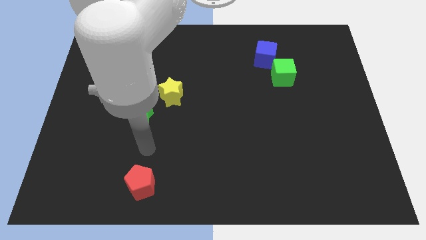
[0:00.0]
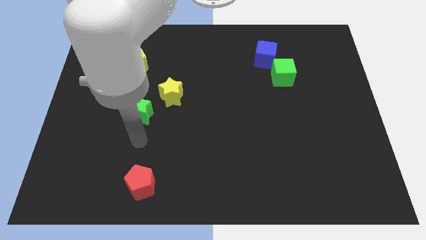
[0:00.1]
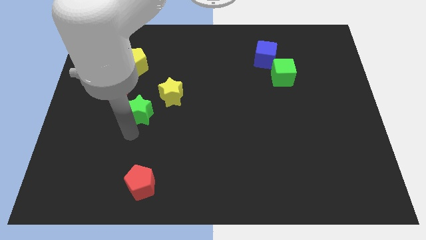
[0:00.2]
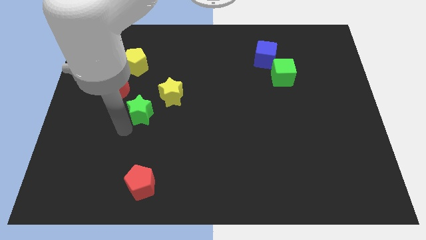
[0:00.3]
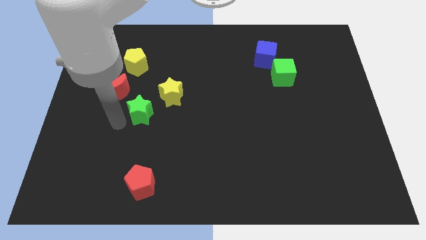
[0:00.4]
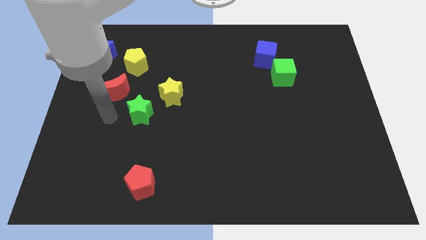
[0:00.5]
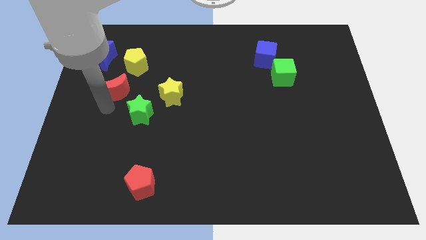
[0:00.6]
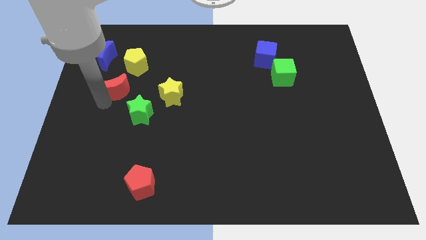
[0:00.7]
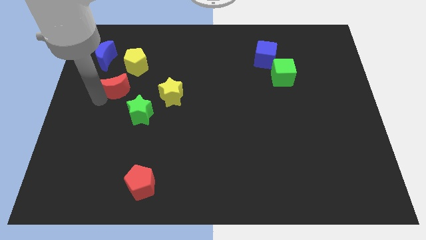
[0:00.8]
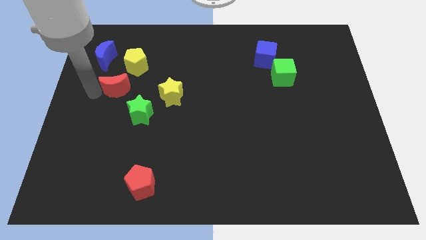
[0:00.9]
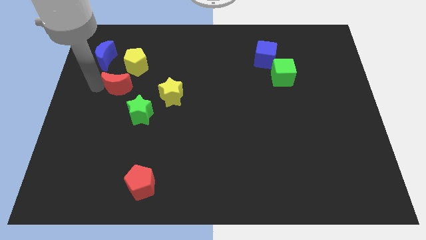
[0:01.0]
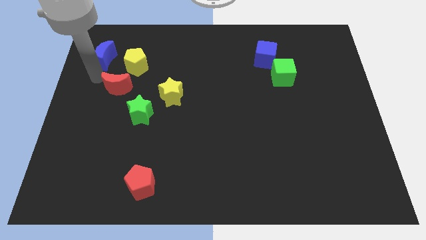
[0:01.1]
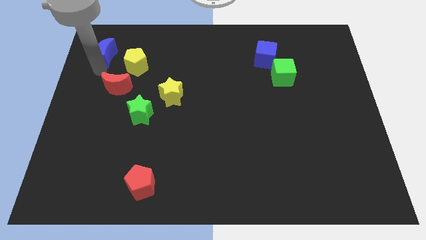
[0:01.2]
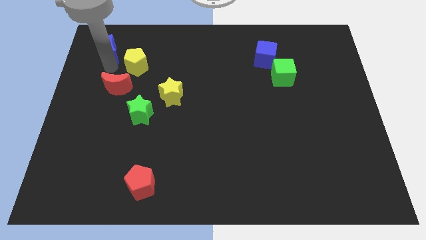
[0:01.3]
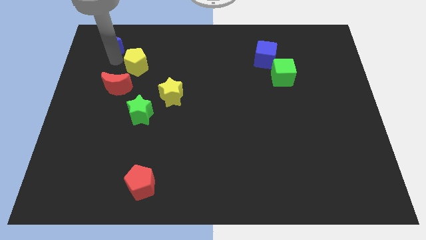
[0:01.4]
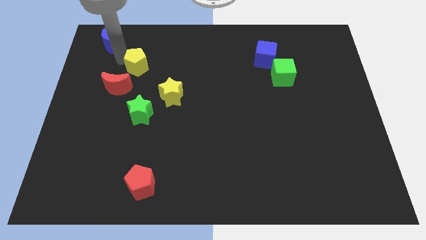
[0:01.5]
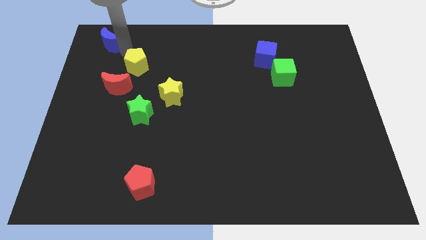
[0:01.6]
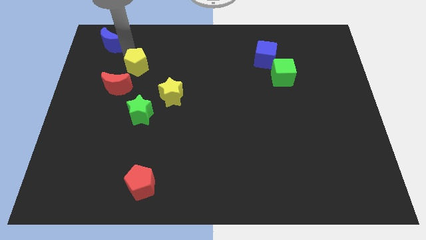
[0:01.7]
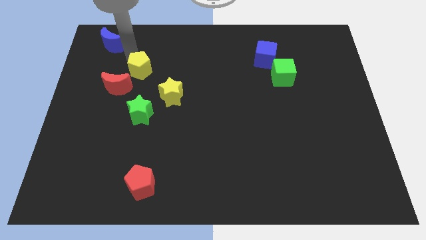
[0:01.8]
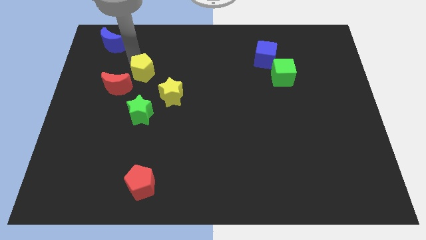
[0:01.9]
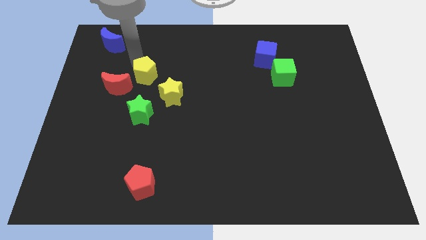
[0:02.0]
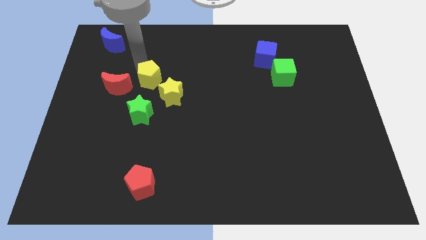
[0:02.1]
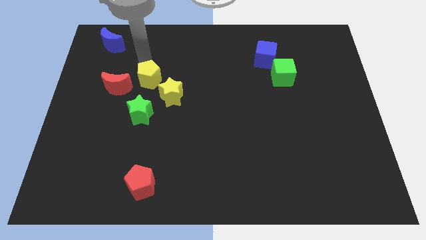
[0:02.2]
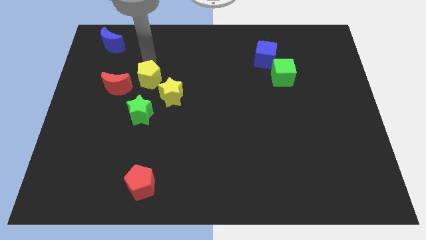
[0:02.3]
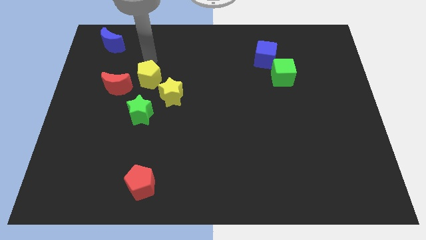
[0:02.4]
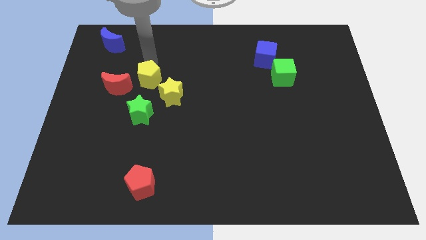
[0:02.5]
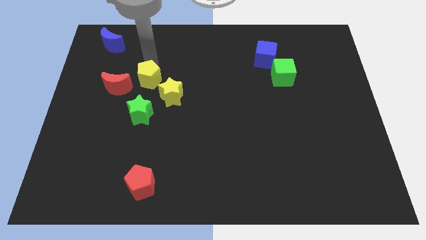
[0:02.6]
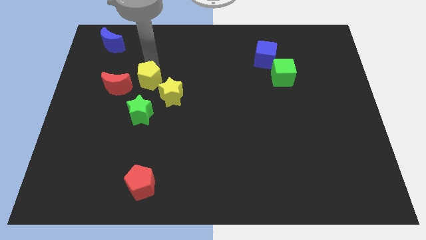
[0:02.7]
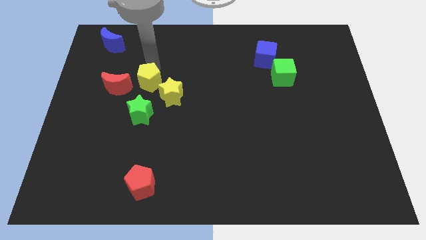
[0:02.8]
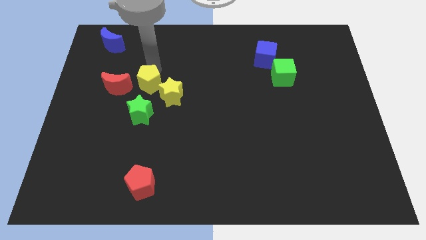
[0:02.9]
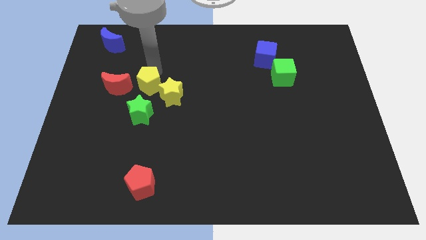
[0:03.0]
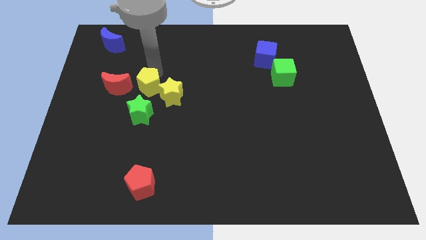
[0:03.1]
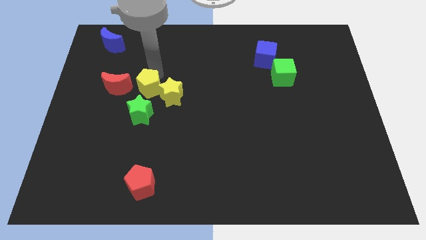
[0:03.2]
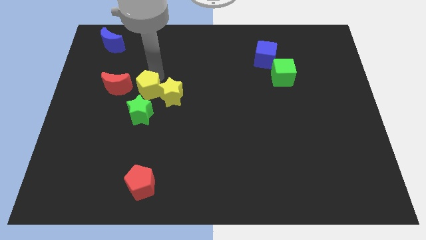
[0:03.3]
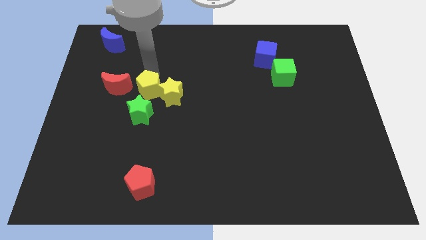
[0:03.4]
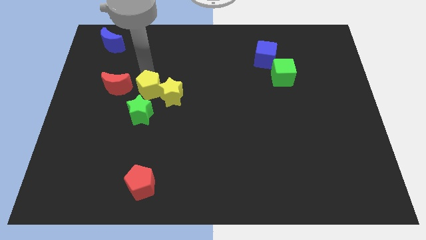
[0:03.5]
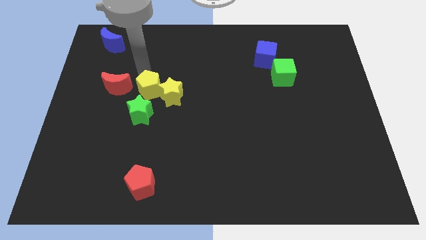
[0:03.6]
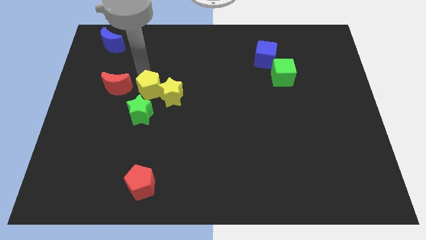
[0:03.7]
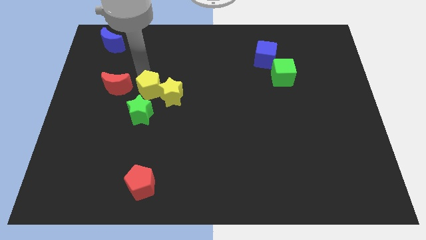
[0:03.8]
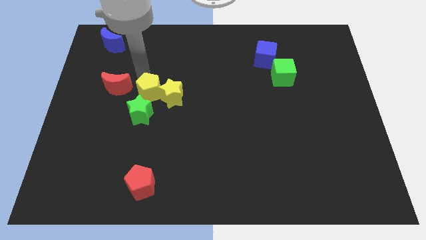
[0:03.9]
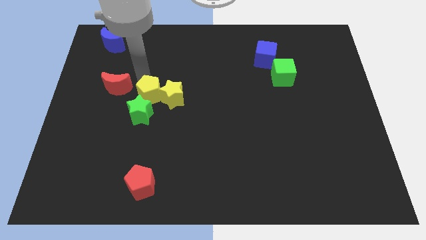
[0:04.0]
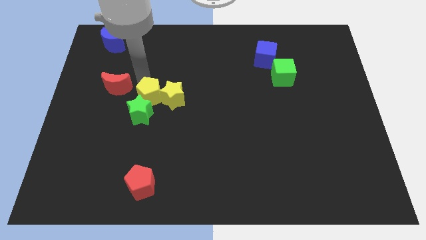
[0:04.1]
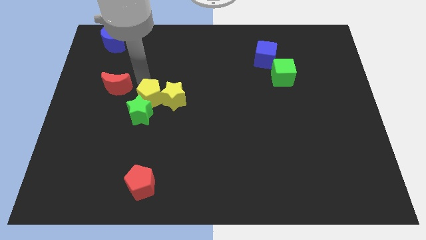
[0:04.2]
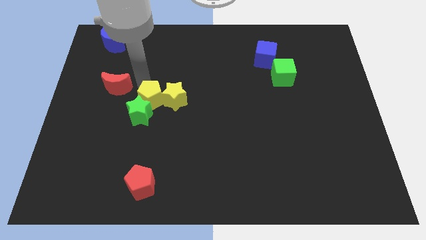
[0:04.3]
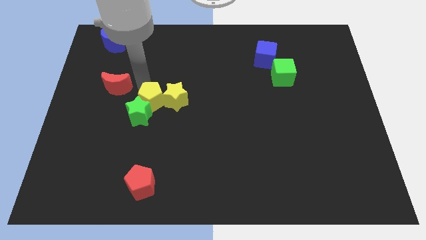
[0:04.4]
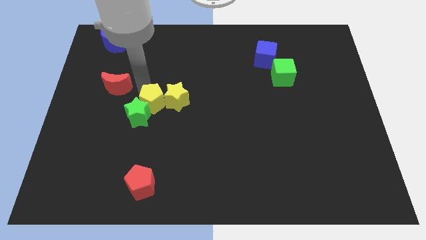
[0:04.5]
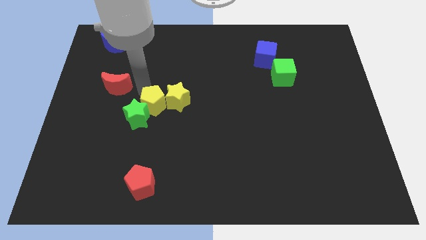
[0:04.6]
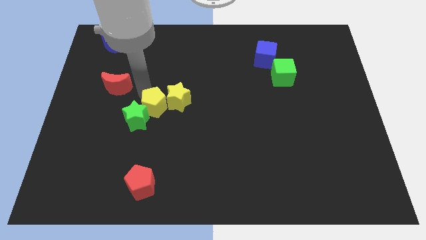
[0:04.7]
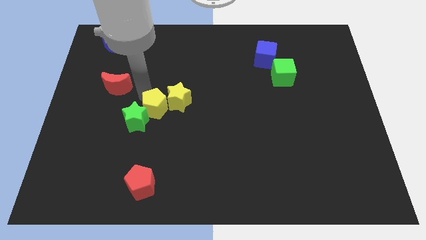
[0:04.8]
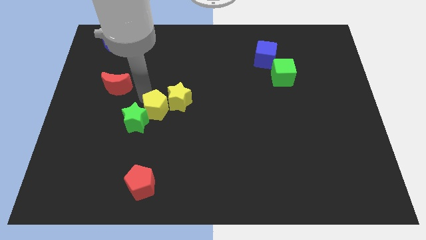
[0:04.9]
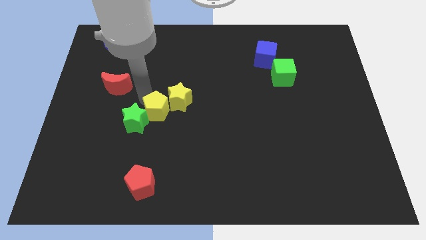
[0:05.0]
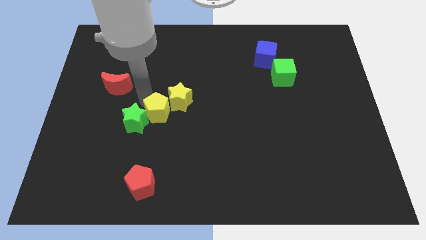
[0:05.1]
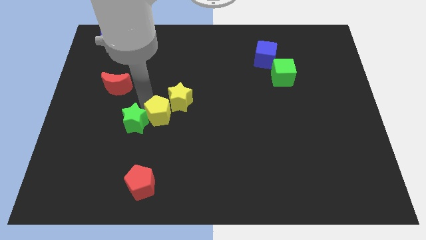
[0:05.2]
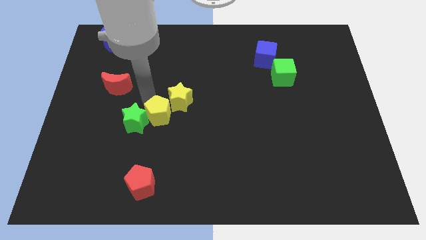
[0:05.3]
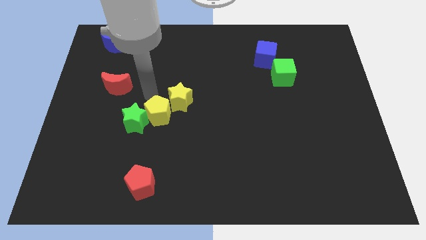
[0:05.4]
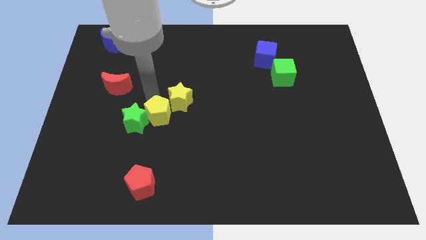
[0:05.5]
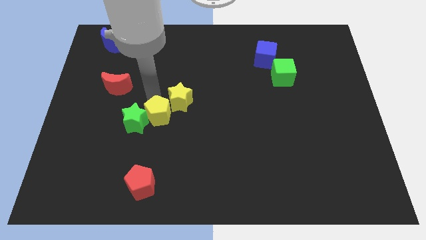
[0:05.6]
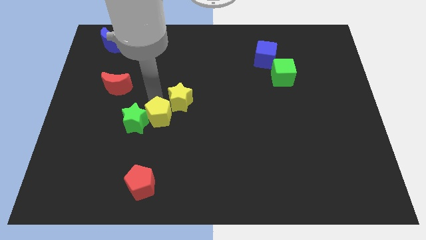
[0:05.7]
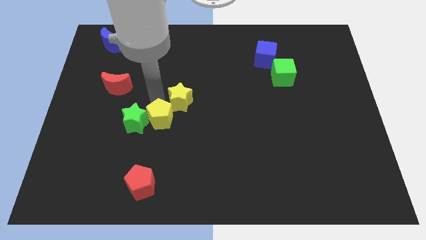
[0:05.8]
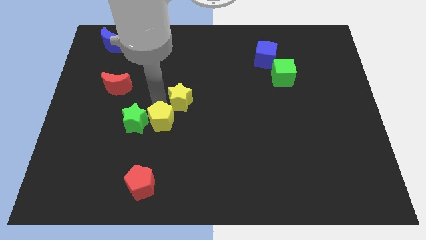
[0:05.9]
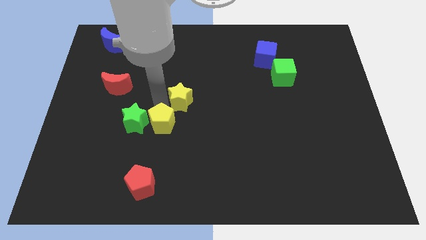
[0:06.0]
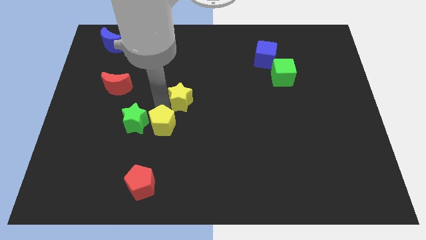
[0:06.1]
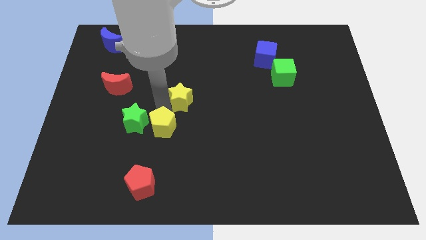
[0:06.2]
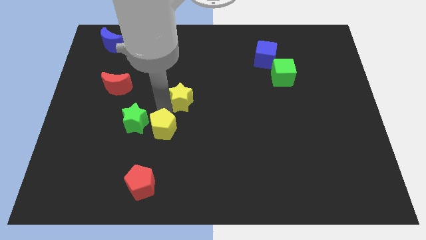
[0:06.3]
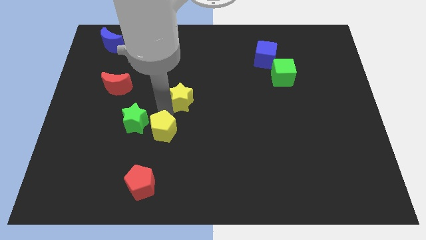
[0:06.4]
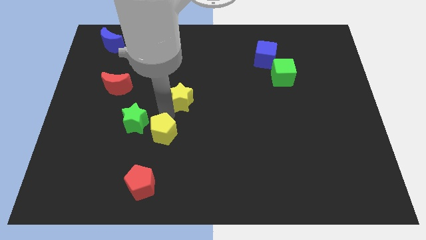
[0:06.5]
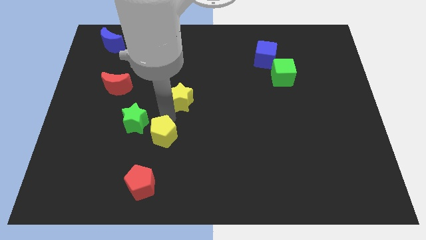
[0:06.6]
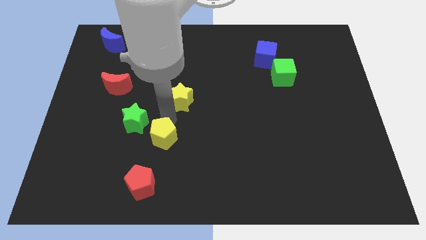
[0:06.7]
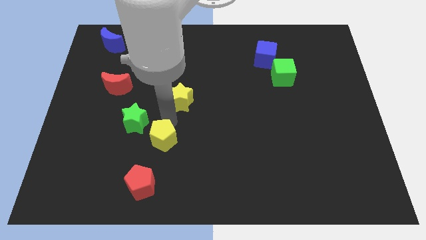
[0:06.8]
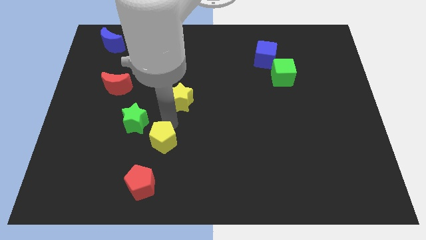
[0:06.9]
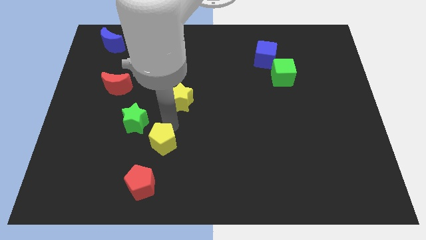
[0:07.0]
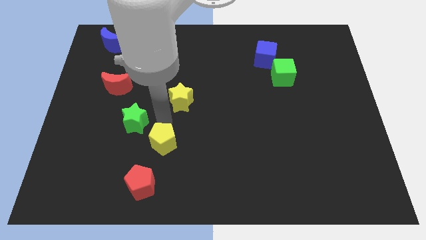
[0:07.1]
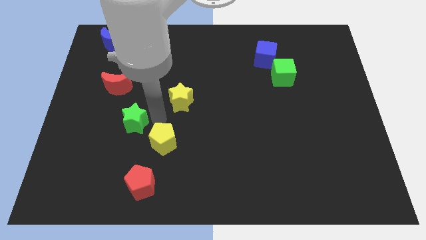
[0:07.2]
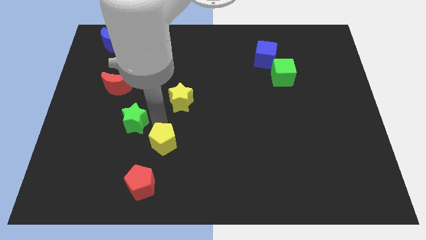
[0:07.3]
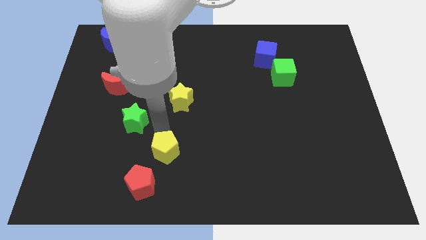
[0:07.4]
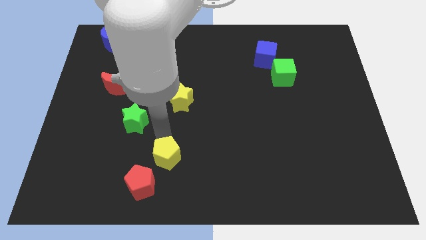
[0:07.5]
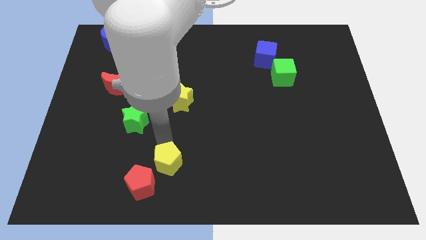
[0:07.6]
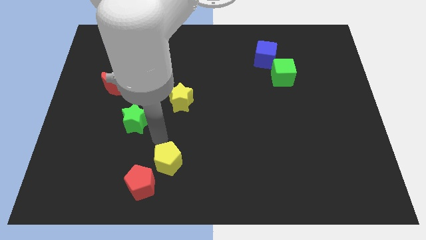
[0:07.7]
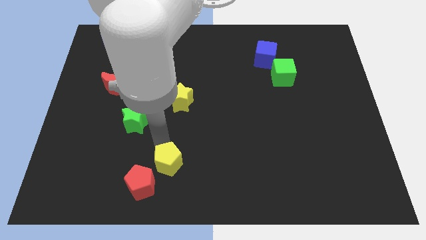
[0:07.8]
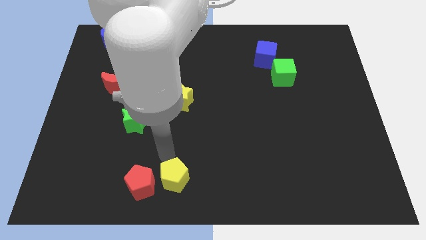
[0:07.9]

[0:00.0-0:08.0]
move the yellow pentagon to the bottom
